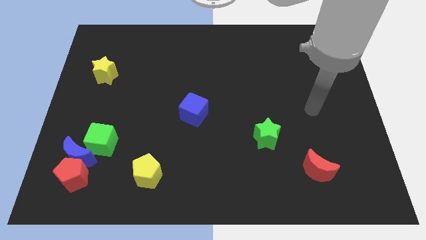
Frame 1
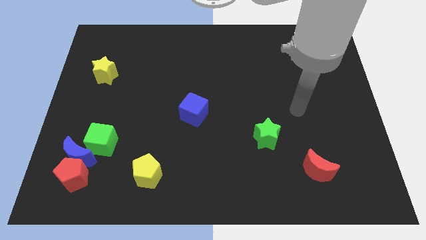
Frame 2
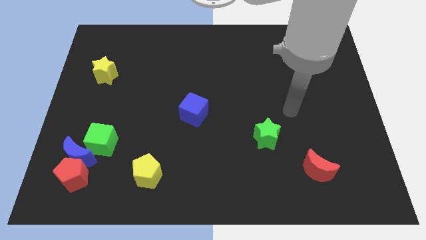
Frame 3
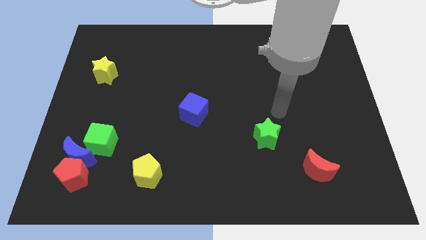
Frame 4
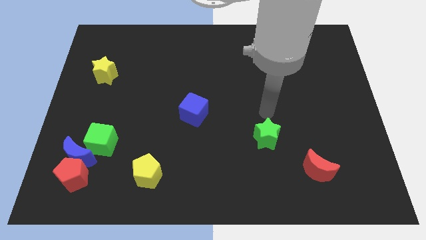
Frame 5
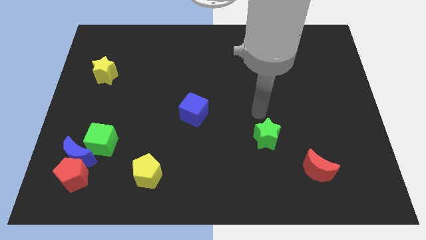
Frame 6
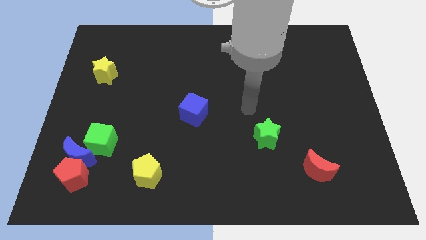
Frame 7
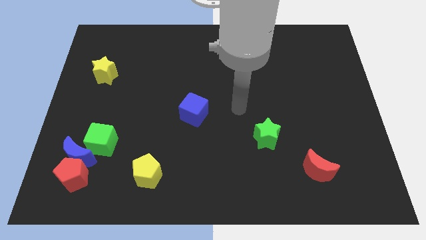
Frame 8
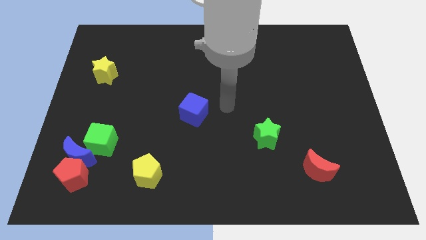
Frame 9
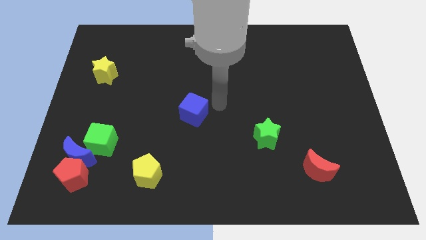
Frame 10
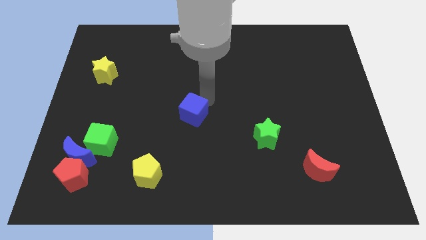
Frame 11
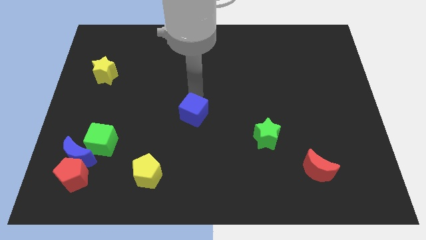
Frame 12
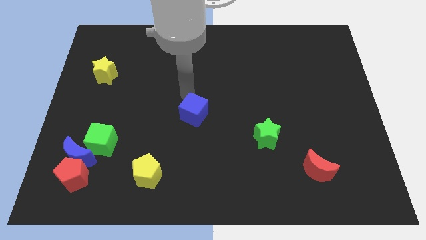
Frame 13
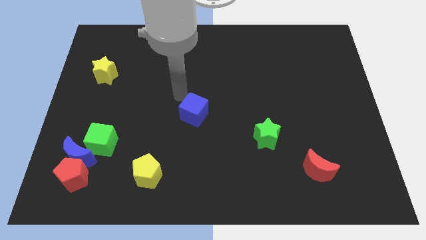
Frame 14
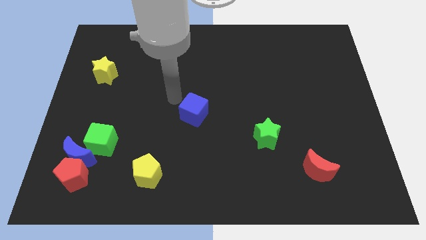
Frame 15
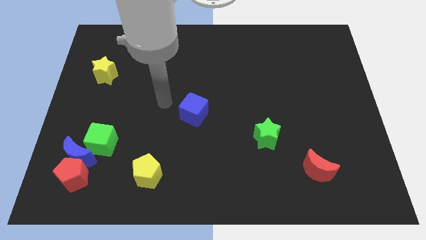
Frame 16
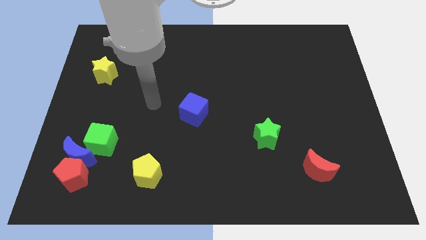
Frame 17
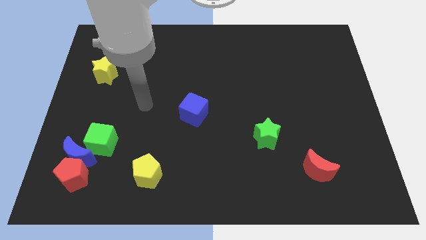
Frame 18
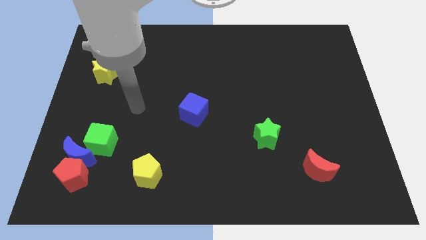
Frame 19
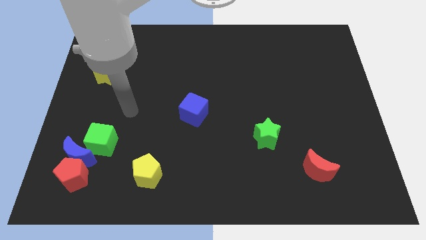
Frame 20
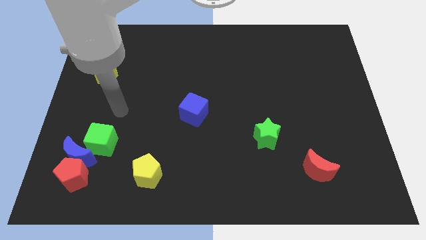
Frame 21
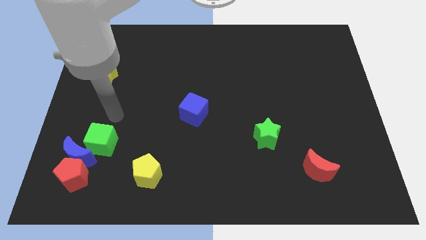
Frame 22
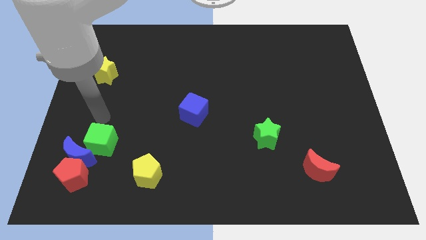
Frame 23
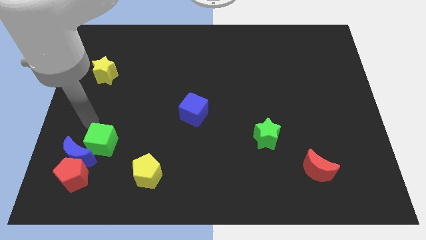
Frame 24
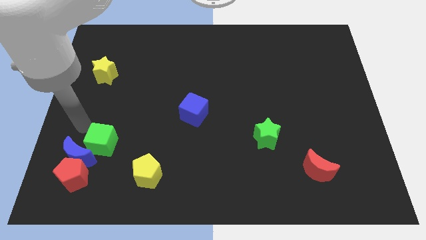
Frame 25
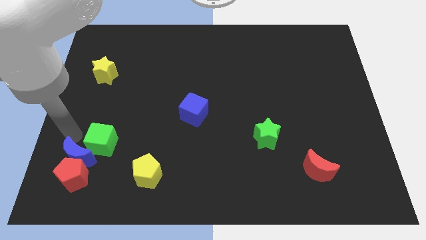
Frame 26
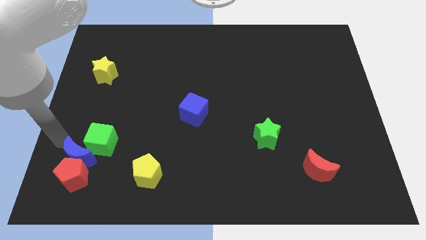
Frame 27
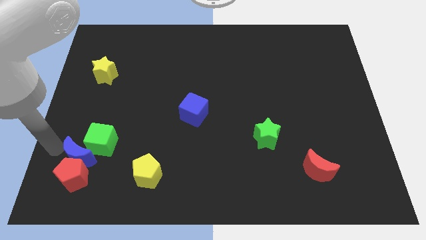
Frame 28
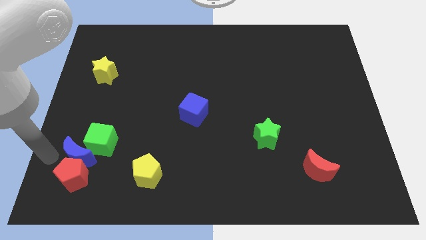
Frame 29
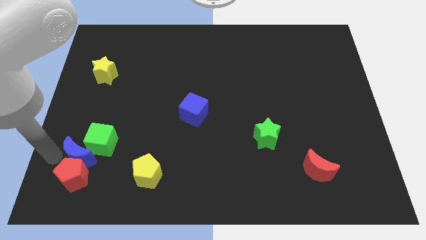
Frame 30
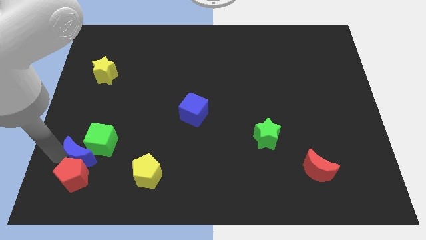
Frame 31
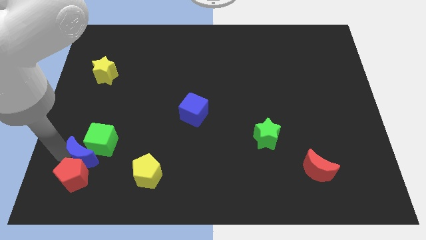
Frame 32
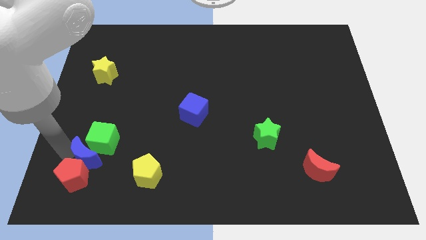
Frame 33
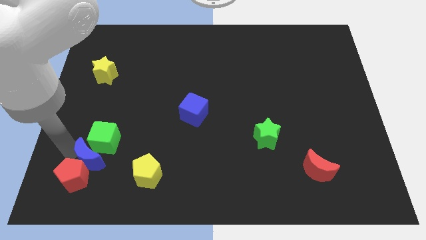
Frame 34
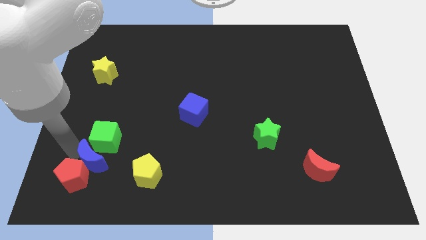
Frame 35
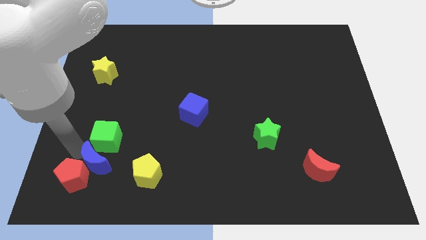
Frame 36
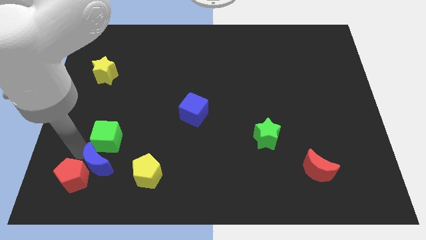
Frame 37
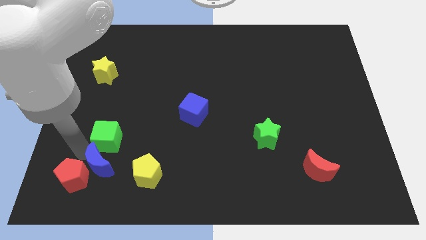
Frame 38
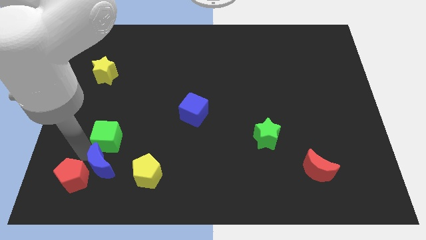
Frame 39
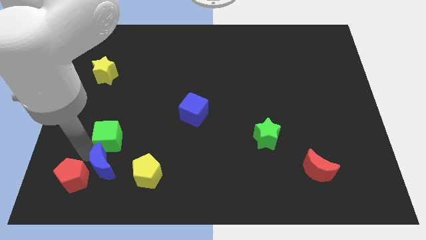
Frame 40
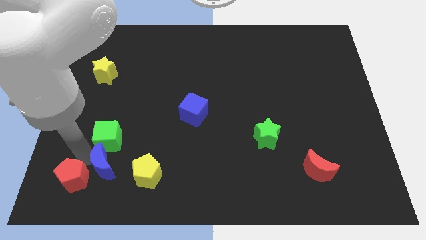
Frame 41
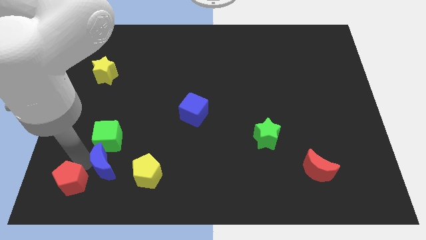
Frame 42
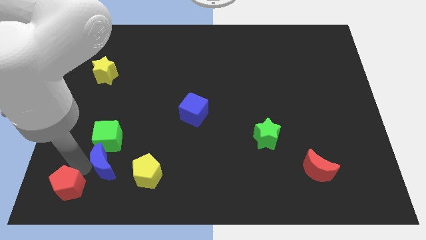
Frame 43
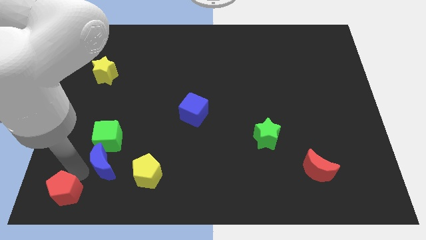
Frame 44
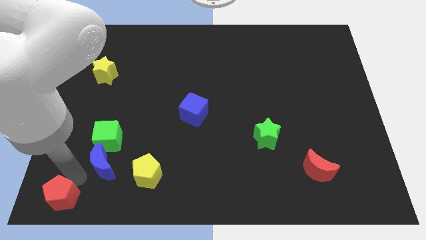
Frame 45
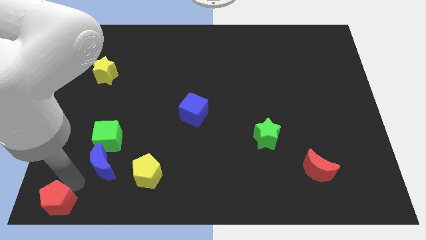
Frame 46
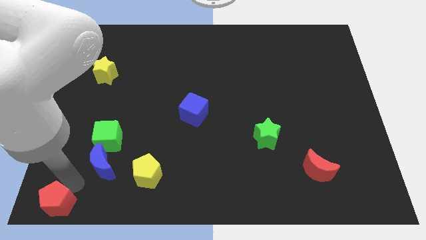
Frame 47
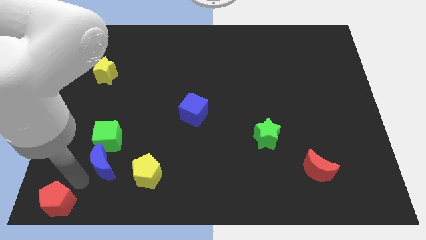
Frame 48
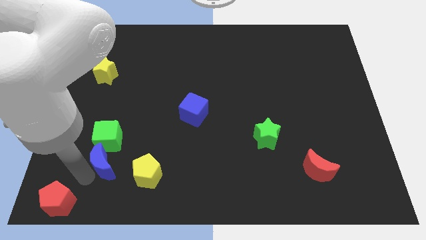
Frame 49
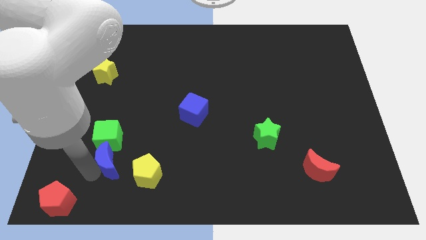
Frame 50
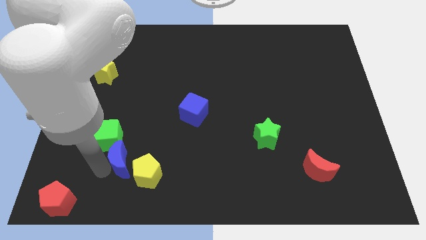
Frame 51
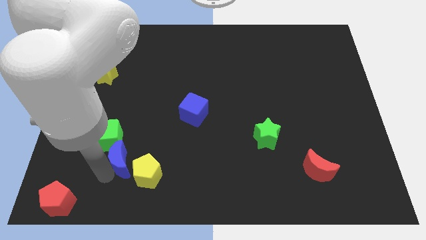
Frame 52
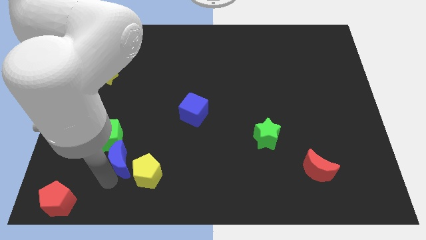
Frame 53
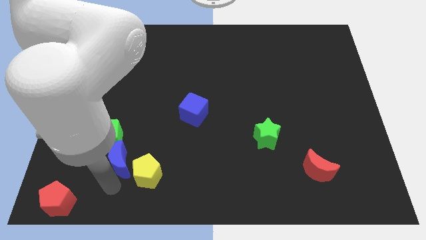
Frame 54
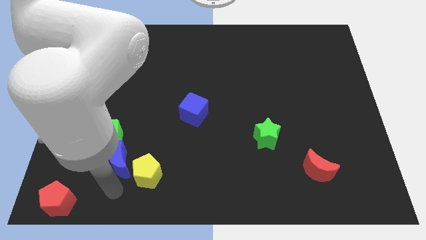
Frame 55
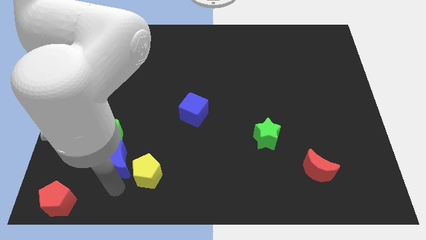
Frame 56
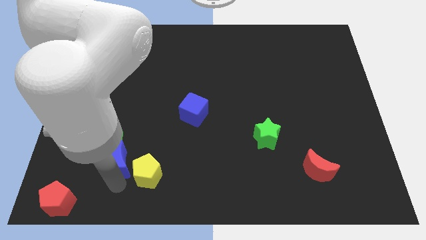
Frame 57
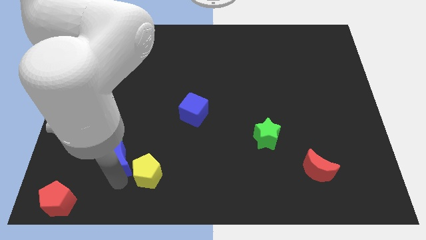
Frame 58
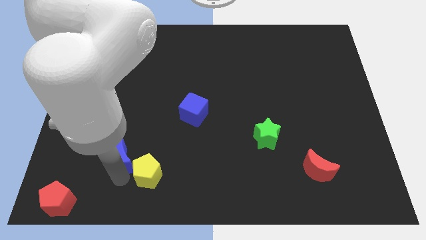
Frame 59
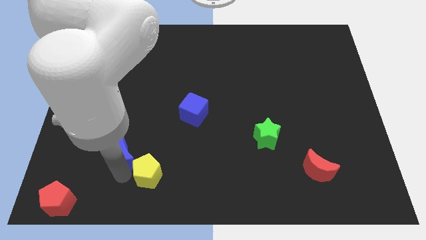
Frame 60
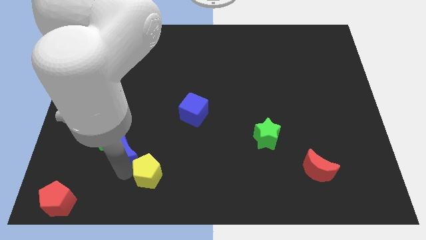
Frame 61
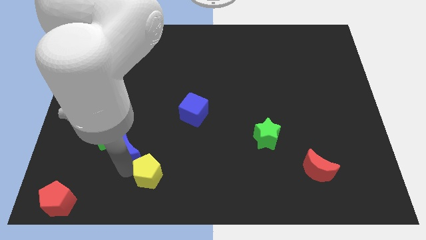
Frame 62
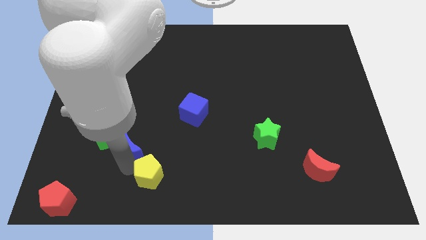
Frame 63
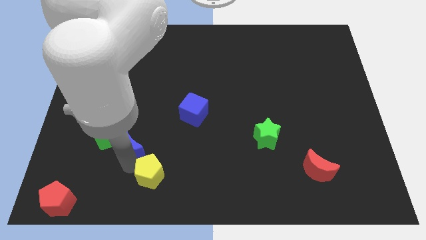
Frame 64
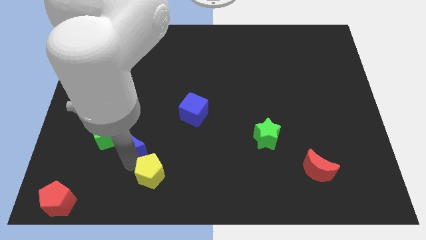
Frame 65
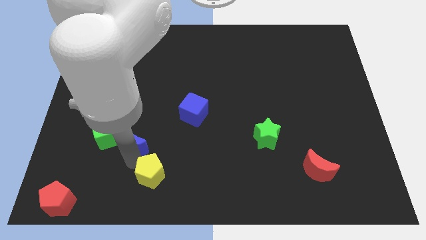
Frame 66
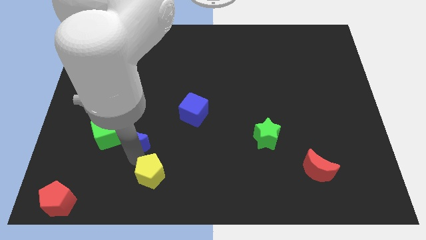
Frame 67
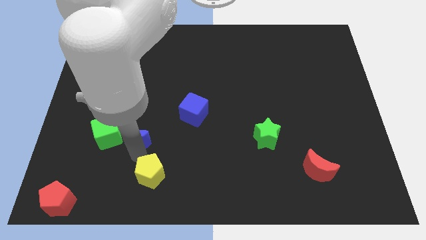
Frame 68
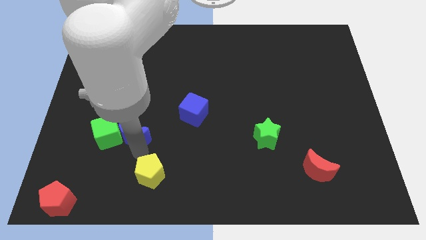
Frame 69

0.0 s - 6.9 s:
move the blue moon to the top right of the green cube
